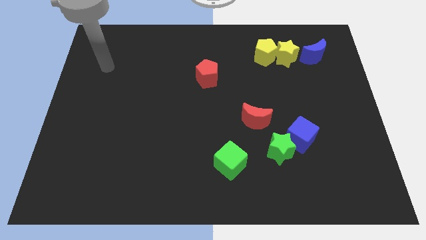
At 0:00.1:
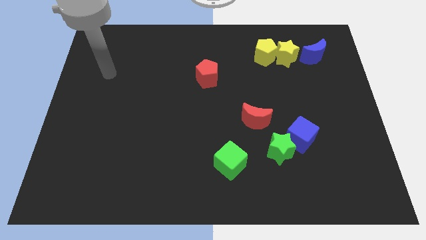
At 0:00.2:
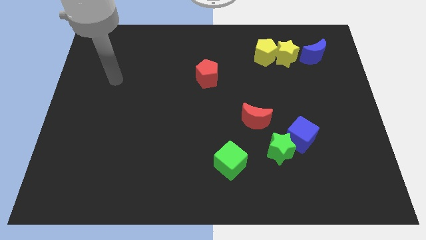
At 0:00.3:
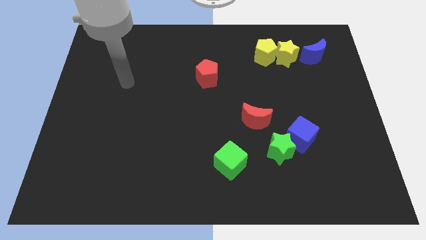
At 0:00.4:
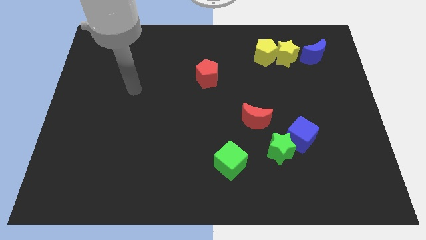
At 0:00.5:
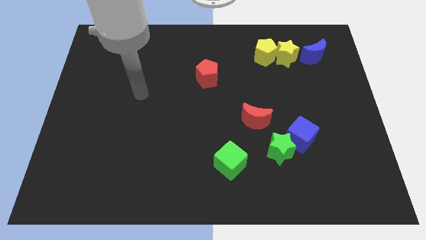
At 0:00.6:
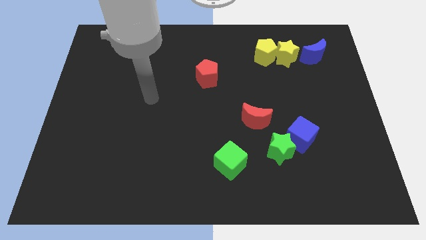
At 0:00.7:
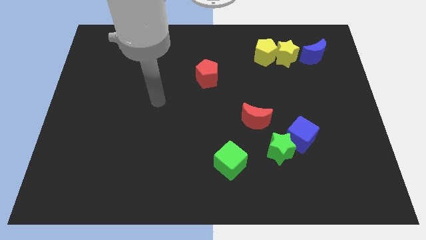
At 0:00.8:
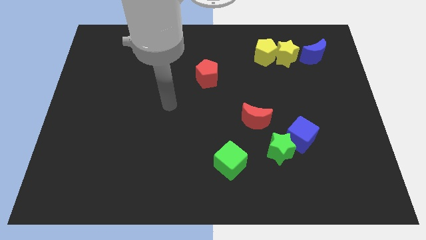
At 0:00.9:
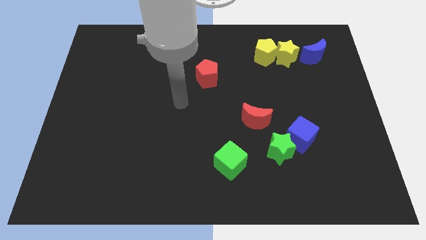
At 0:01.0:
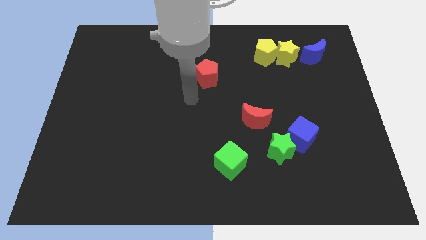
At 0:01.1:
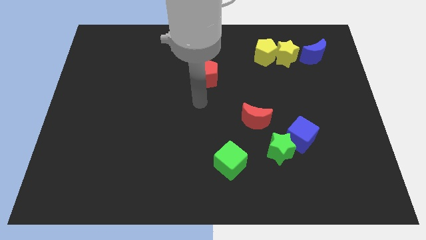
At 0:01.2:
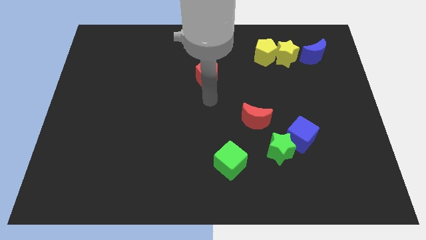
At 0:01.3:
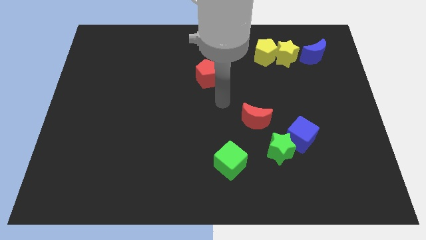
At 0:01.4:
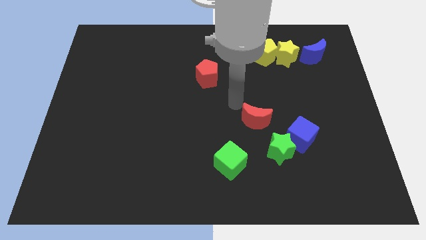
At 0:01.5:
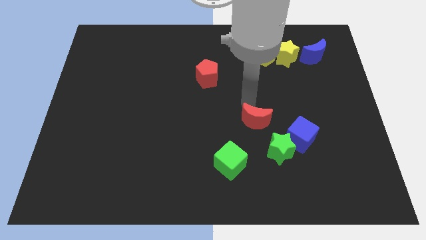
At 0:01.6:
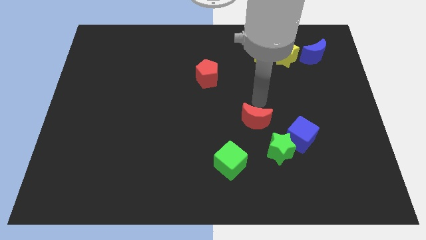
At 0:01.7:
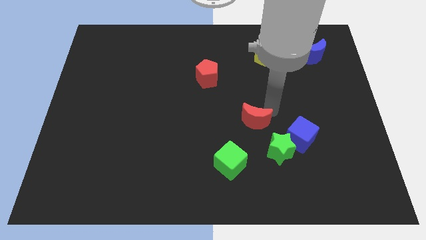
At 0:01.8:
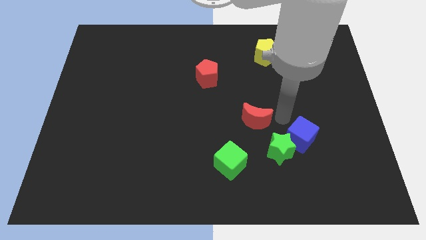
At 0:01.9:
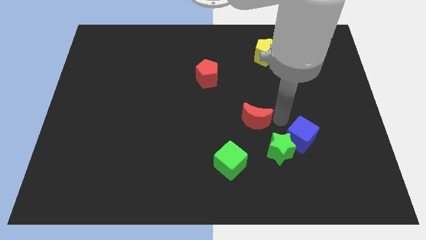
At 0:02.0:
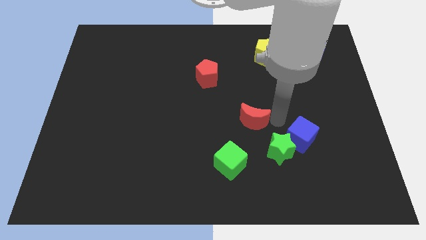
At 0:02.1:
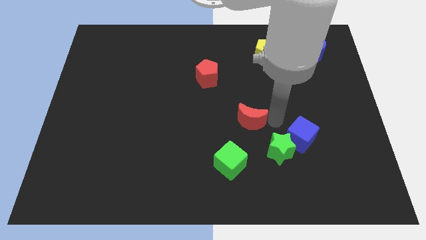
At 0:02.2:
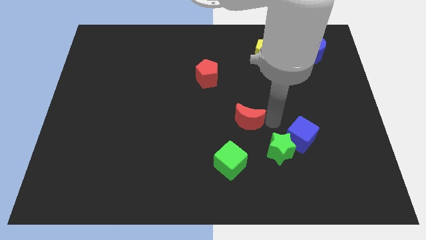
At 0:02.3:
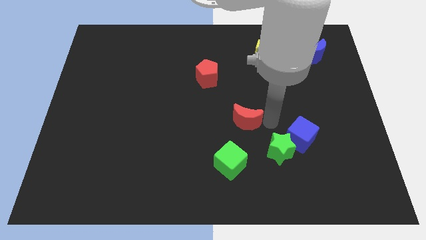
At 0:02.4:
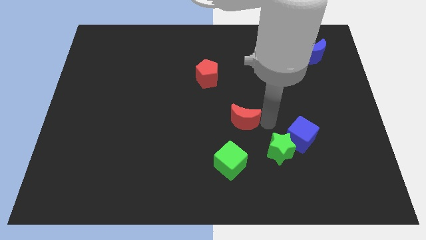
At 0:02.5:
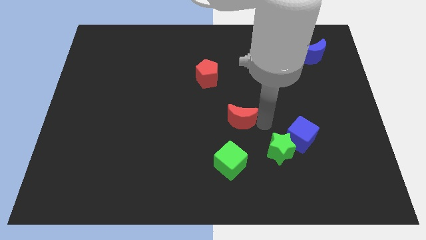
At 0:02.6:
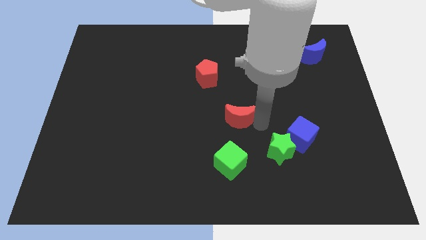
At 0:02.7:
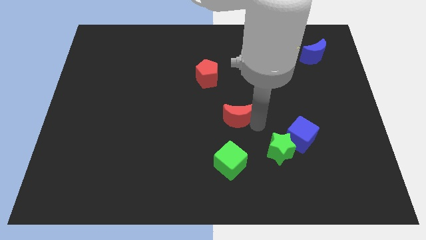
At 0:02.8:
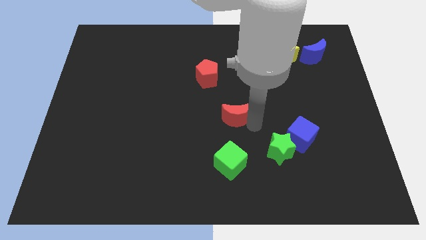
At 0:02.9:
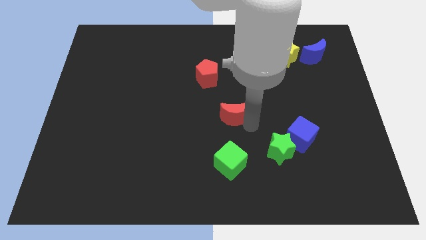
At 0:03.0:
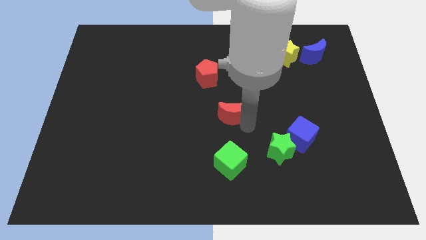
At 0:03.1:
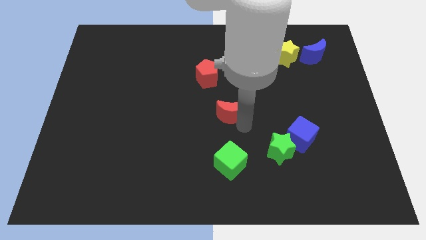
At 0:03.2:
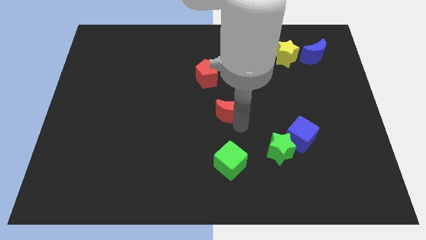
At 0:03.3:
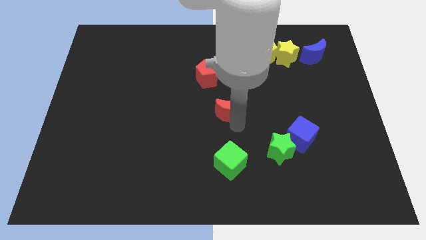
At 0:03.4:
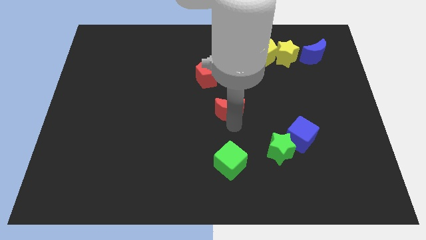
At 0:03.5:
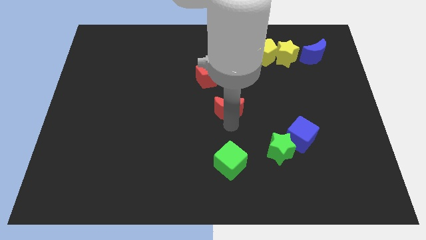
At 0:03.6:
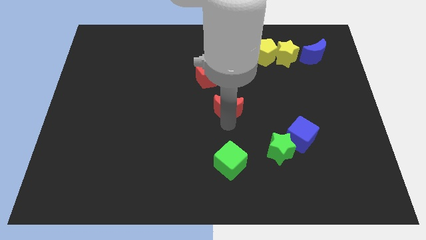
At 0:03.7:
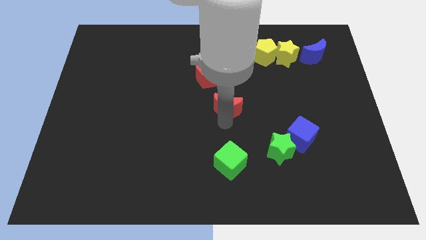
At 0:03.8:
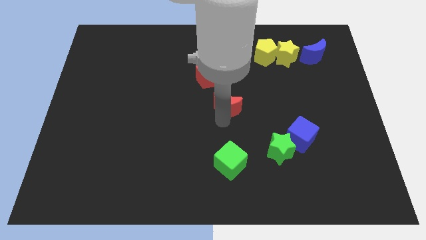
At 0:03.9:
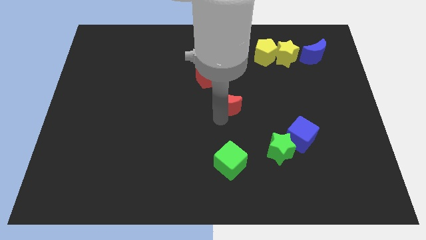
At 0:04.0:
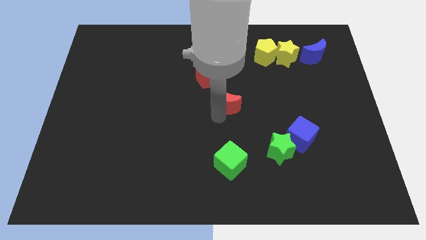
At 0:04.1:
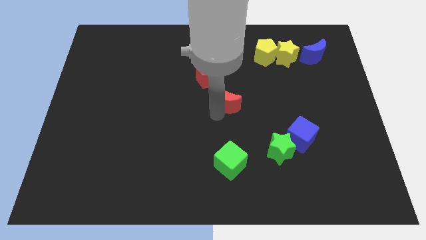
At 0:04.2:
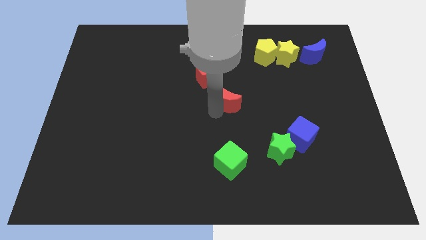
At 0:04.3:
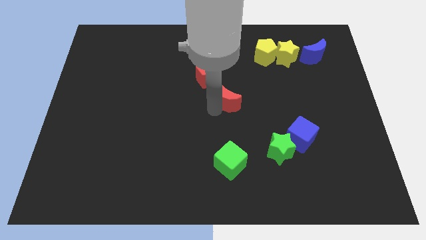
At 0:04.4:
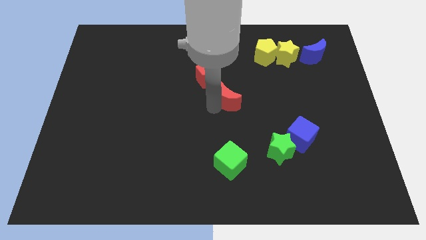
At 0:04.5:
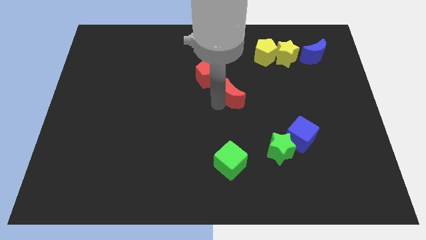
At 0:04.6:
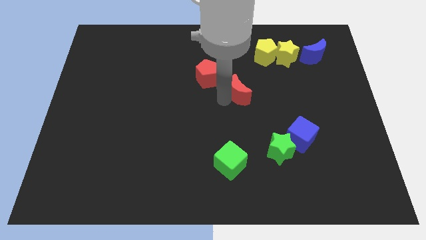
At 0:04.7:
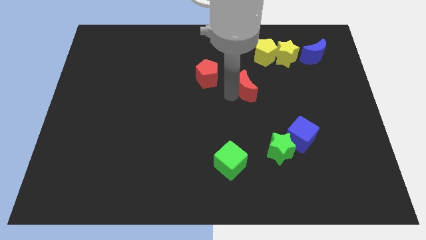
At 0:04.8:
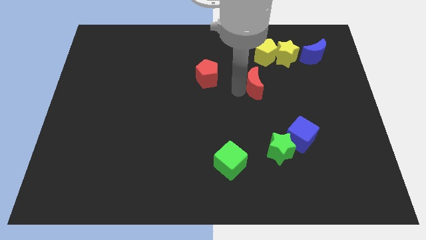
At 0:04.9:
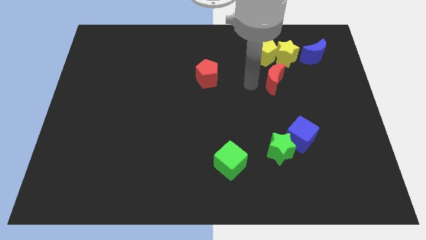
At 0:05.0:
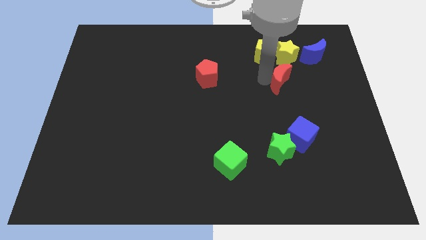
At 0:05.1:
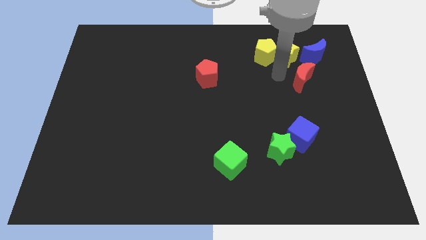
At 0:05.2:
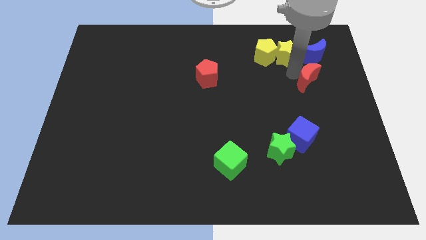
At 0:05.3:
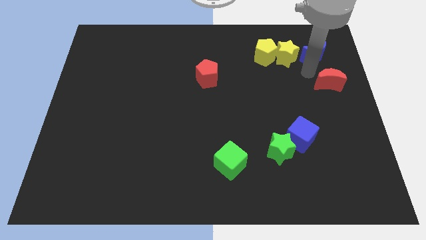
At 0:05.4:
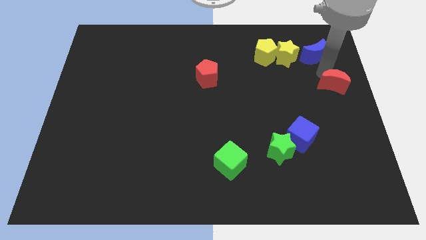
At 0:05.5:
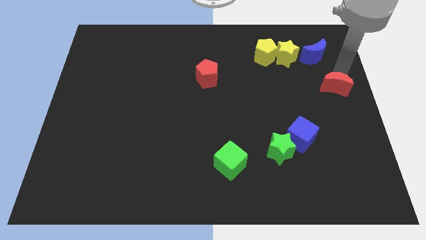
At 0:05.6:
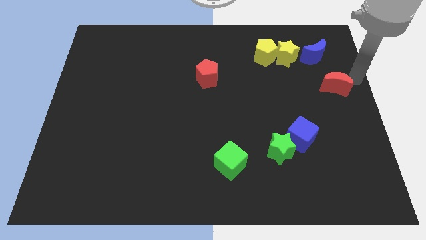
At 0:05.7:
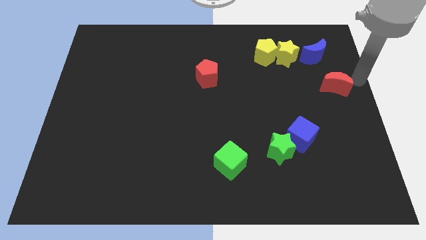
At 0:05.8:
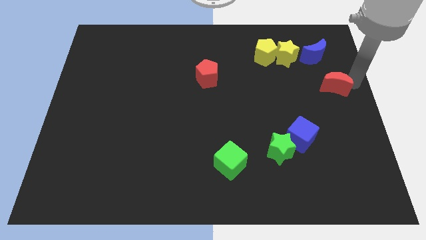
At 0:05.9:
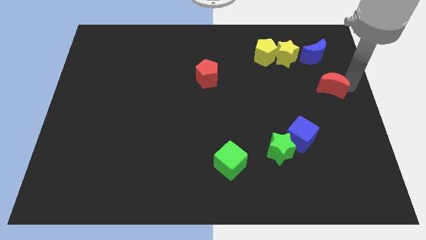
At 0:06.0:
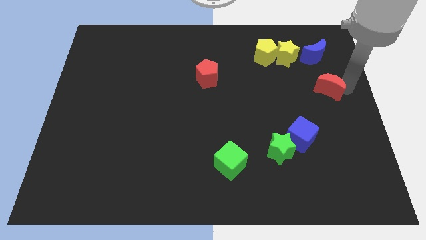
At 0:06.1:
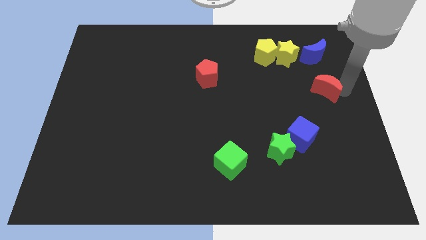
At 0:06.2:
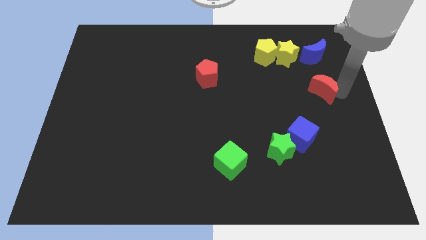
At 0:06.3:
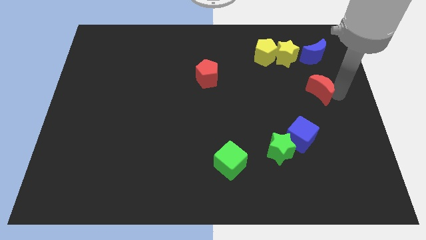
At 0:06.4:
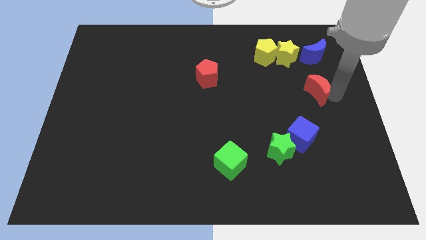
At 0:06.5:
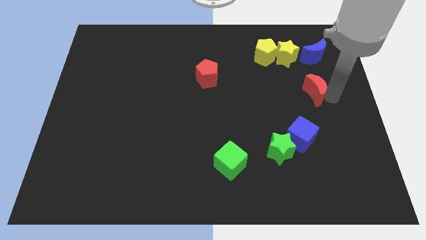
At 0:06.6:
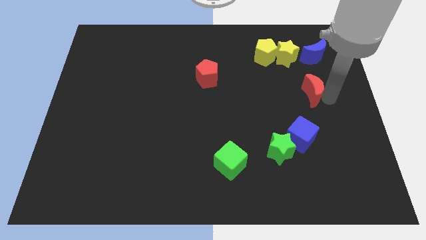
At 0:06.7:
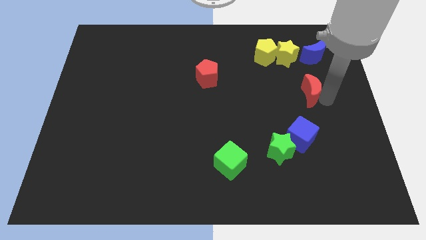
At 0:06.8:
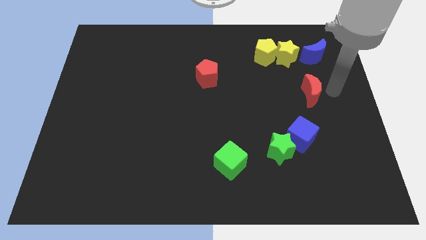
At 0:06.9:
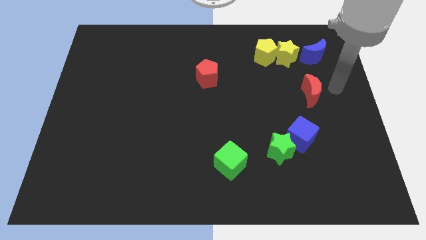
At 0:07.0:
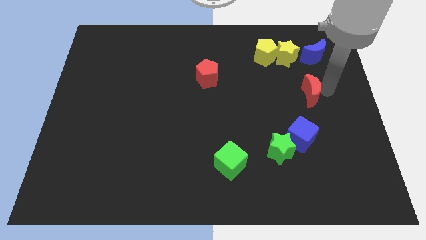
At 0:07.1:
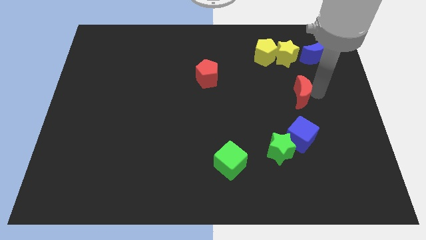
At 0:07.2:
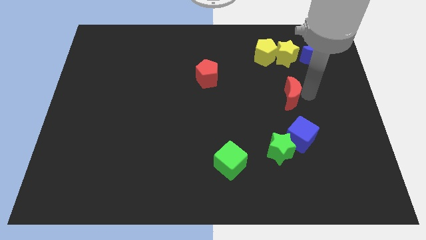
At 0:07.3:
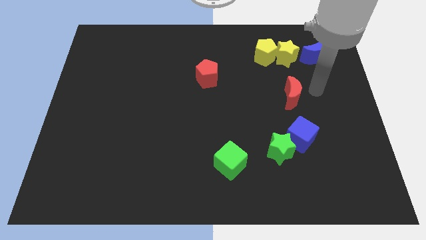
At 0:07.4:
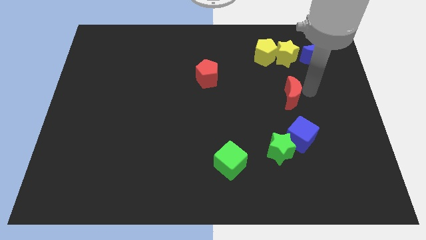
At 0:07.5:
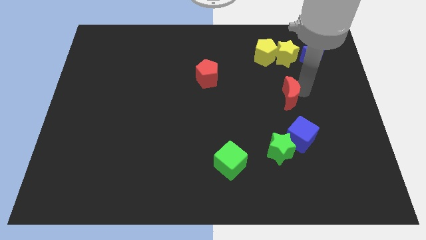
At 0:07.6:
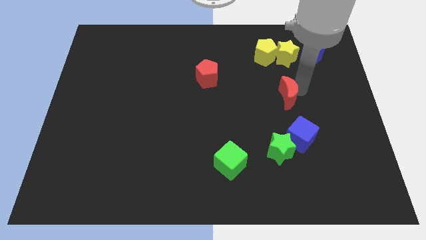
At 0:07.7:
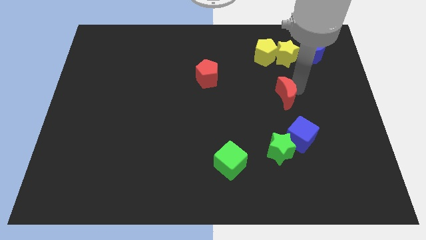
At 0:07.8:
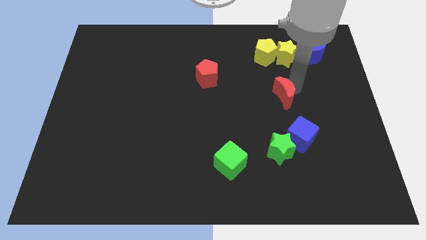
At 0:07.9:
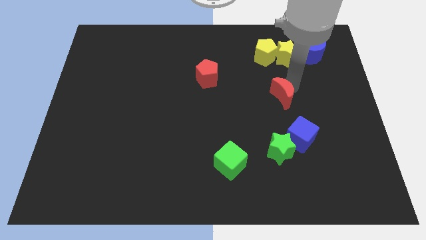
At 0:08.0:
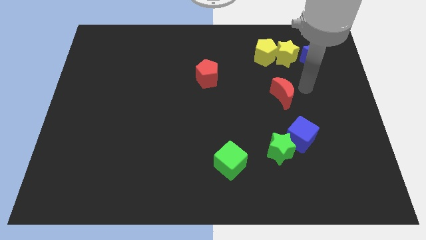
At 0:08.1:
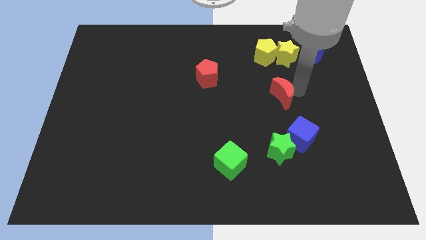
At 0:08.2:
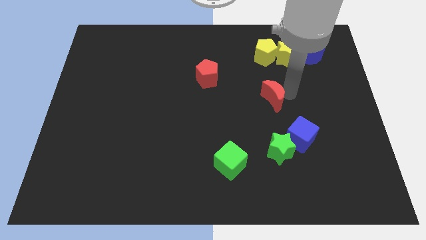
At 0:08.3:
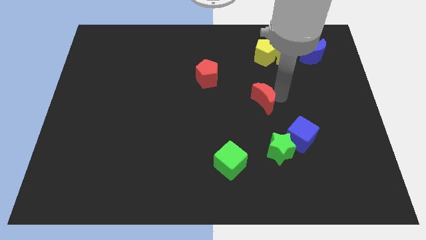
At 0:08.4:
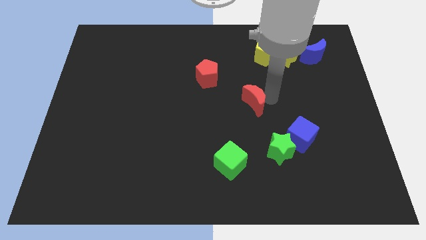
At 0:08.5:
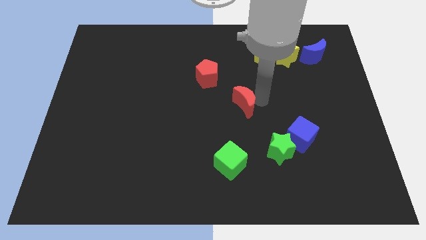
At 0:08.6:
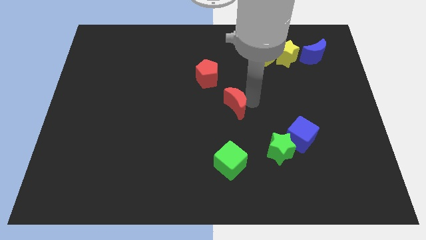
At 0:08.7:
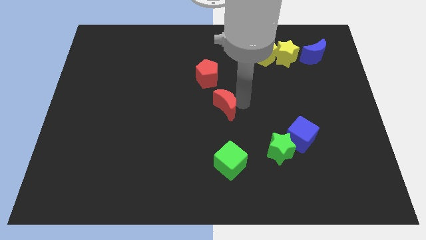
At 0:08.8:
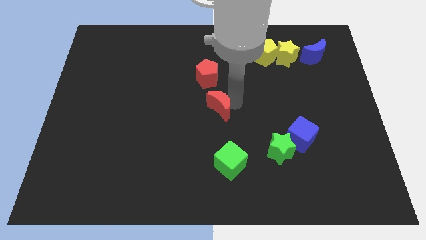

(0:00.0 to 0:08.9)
slightly move the red moon to the left
